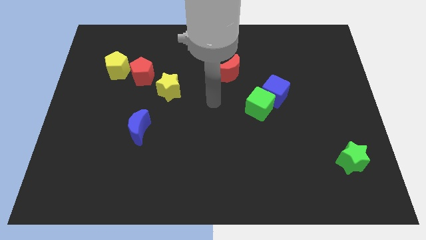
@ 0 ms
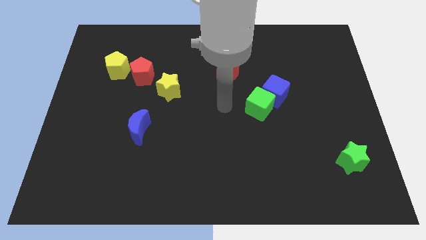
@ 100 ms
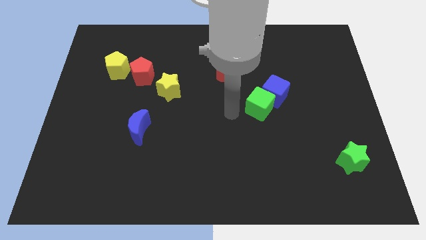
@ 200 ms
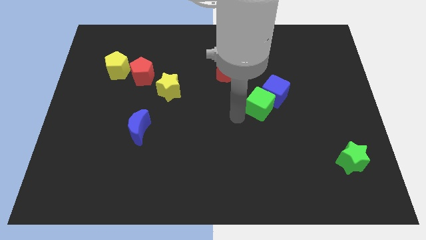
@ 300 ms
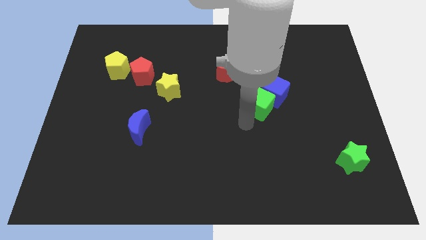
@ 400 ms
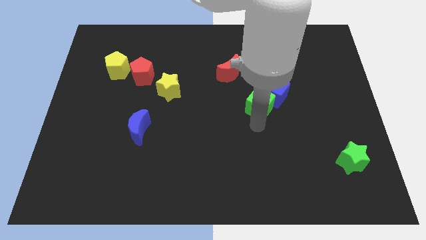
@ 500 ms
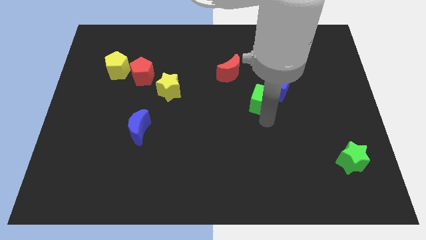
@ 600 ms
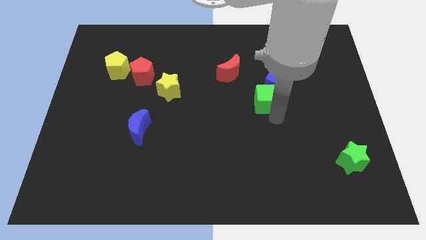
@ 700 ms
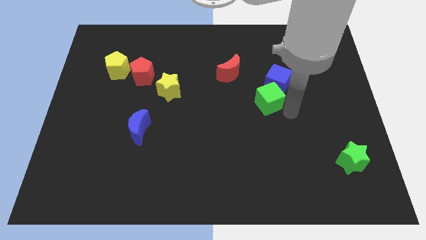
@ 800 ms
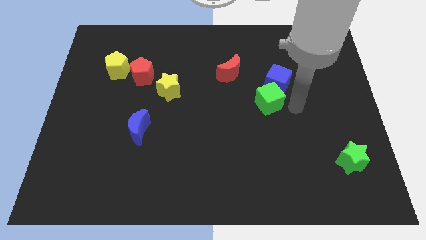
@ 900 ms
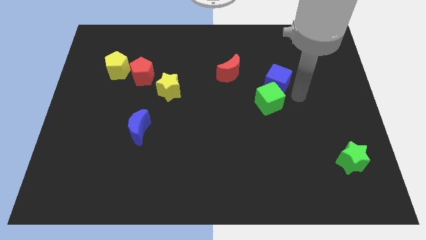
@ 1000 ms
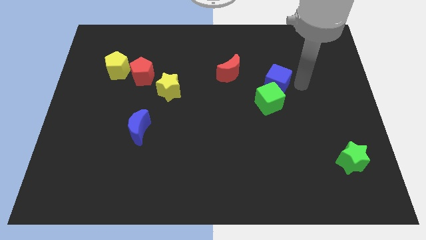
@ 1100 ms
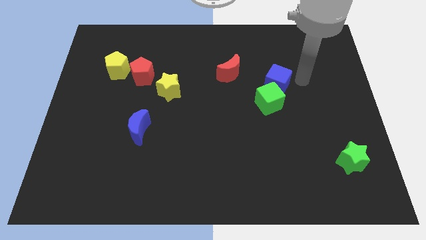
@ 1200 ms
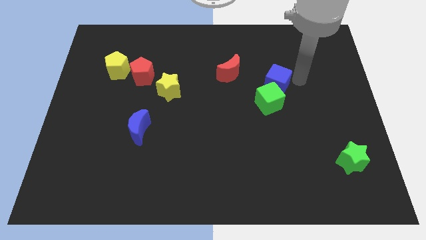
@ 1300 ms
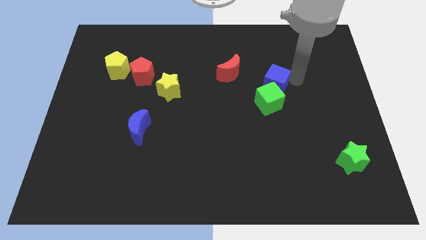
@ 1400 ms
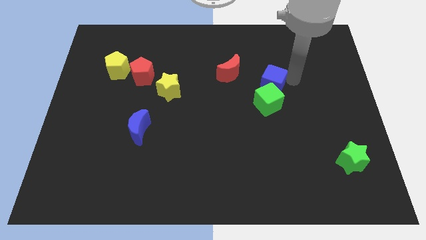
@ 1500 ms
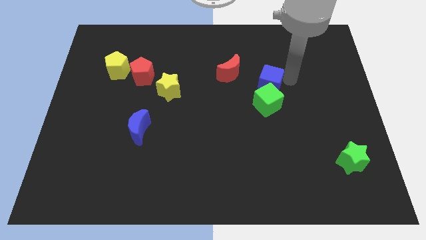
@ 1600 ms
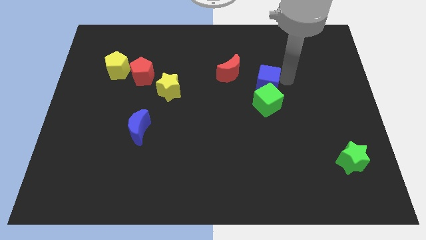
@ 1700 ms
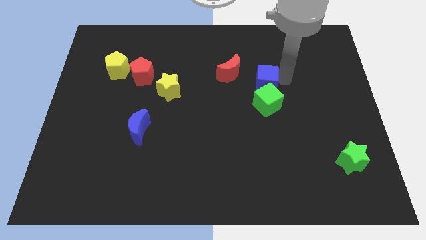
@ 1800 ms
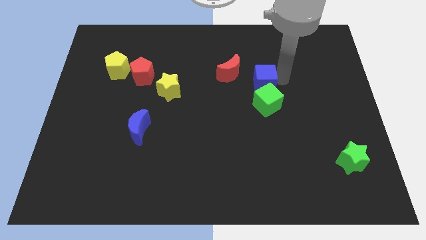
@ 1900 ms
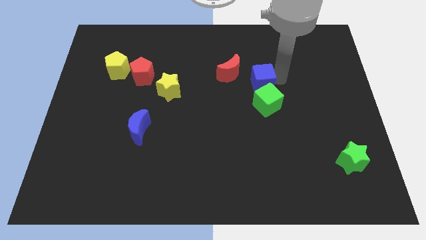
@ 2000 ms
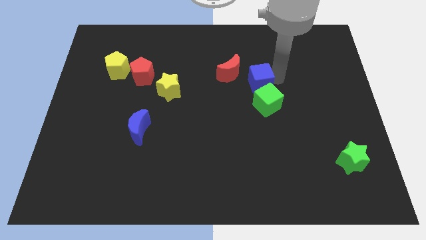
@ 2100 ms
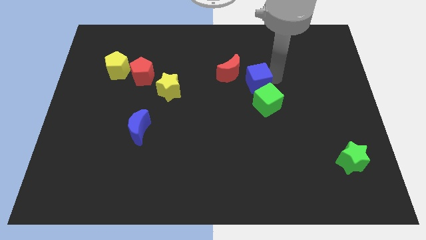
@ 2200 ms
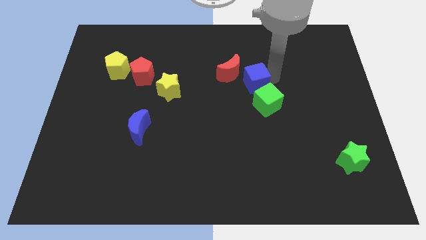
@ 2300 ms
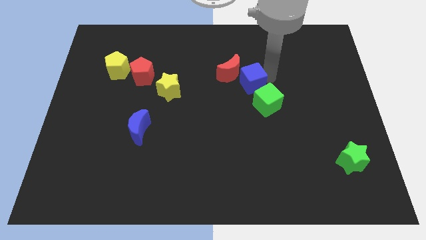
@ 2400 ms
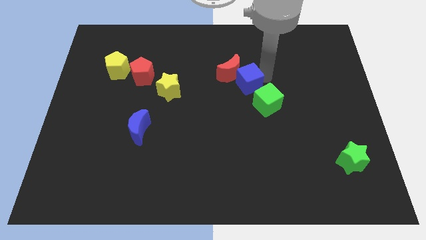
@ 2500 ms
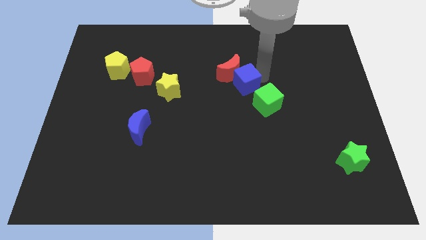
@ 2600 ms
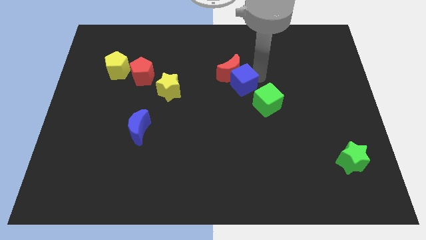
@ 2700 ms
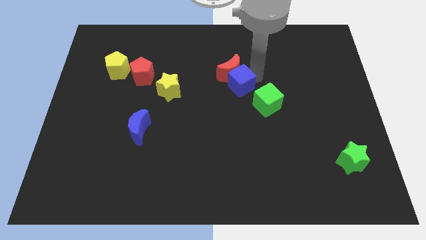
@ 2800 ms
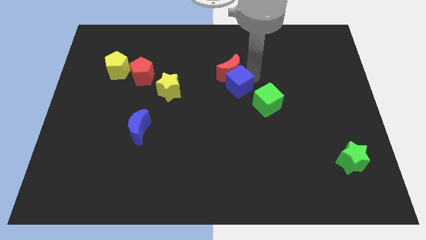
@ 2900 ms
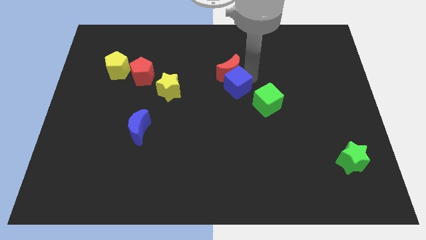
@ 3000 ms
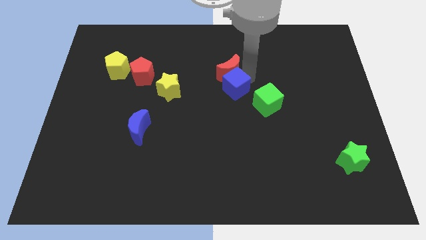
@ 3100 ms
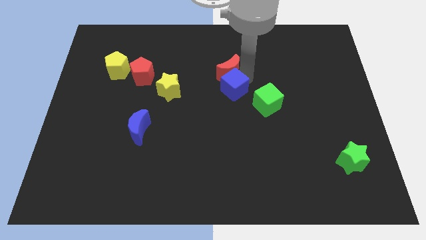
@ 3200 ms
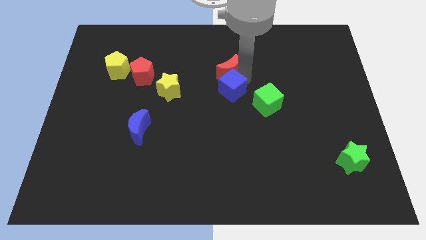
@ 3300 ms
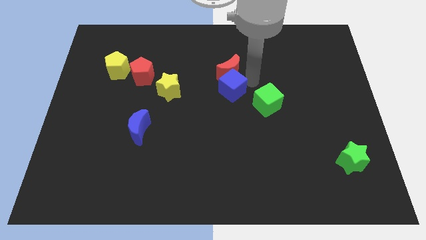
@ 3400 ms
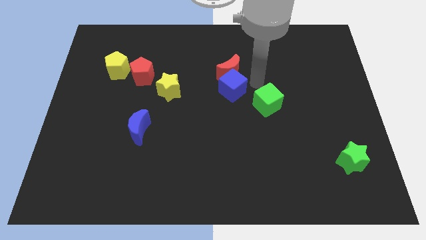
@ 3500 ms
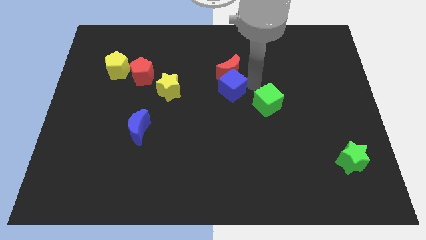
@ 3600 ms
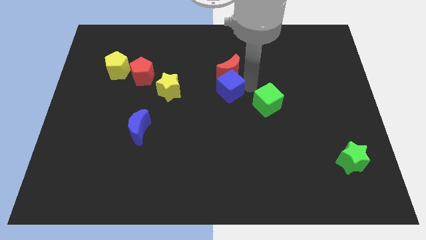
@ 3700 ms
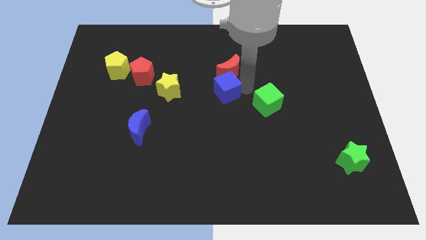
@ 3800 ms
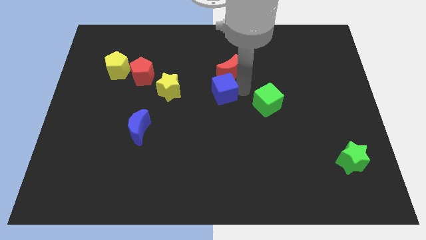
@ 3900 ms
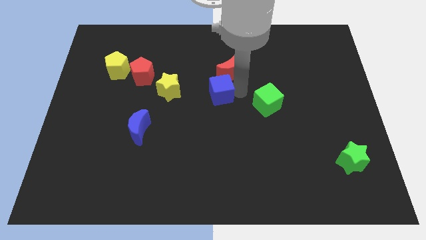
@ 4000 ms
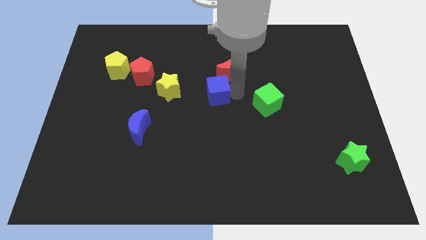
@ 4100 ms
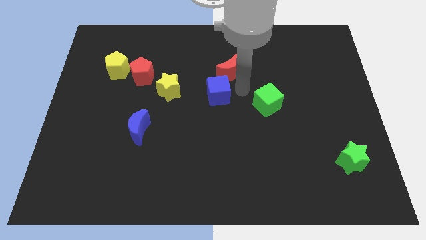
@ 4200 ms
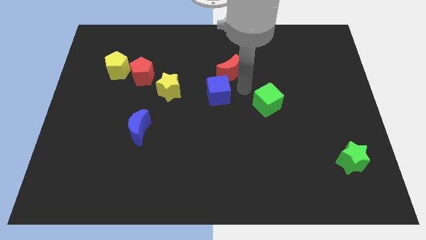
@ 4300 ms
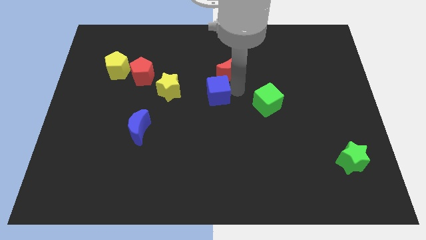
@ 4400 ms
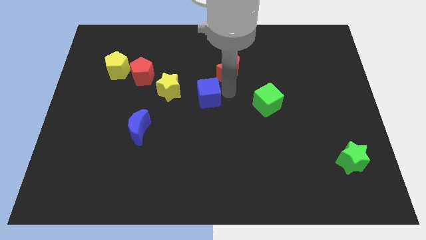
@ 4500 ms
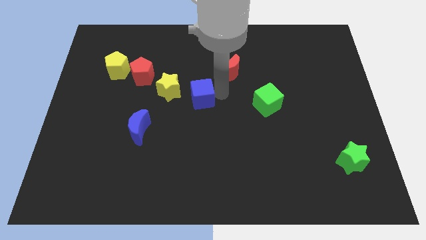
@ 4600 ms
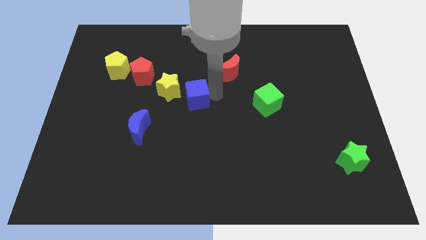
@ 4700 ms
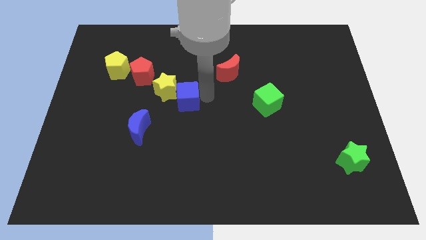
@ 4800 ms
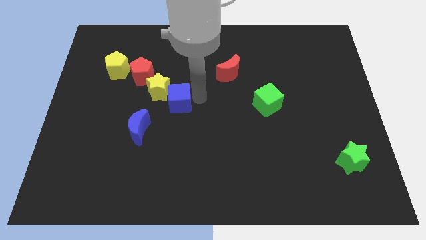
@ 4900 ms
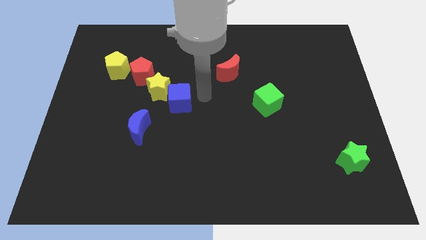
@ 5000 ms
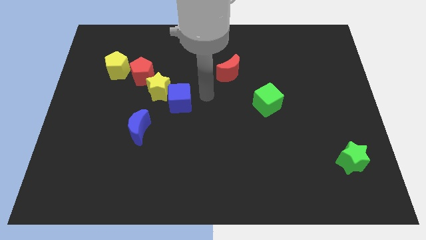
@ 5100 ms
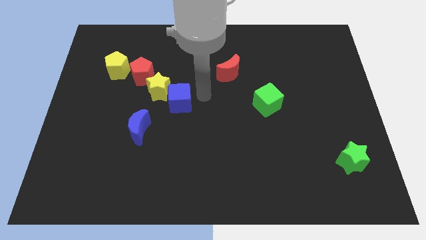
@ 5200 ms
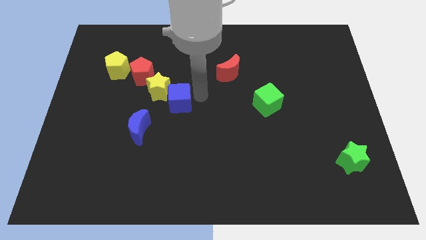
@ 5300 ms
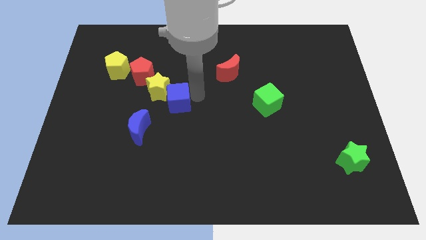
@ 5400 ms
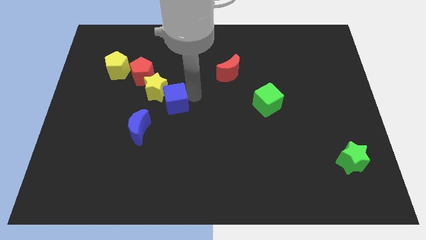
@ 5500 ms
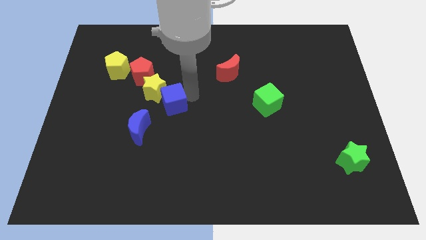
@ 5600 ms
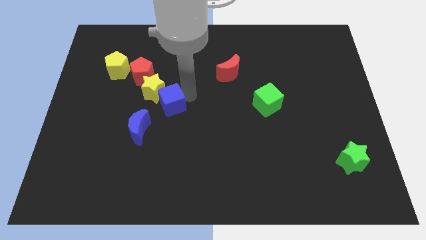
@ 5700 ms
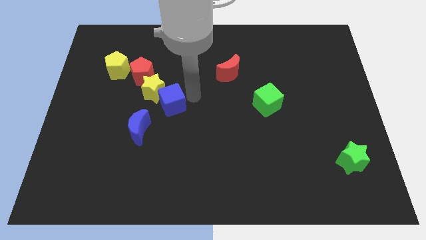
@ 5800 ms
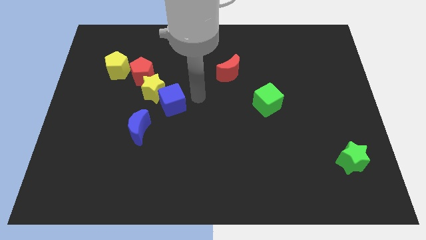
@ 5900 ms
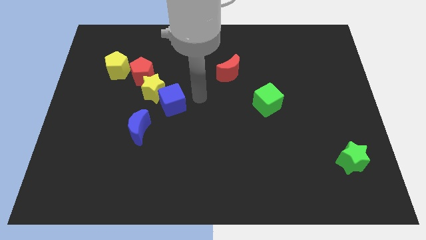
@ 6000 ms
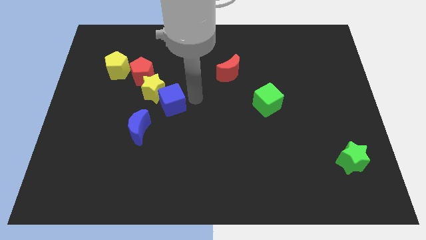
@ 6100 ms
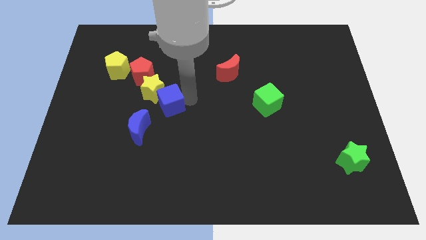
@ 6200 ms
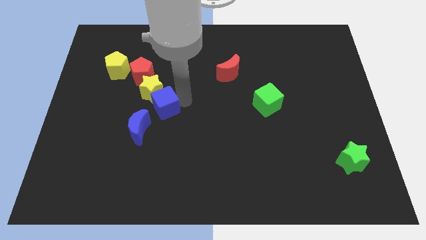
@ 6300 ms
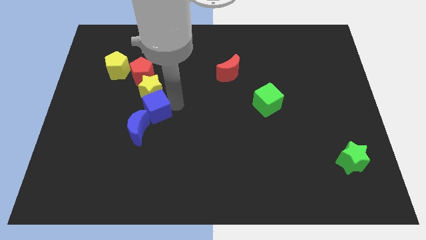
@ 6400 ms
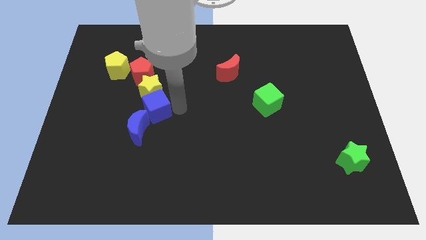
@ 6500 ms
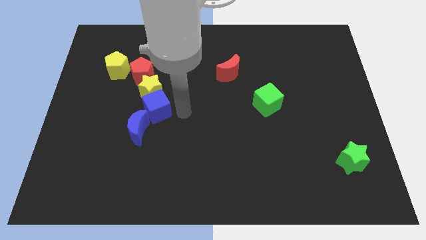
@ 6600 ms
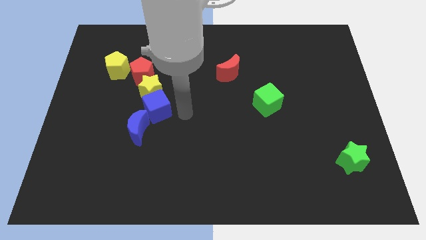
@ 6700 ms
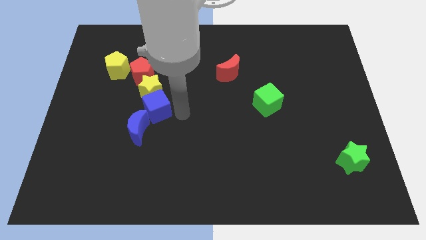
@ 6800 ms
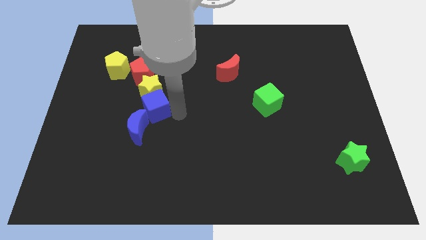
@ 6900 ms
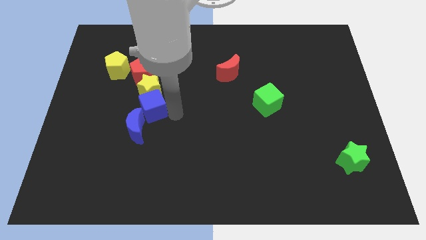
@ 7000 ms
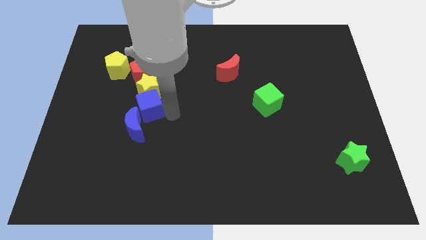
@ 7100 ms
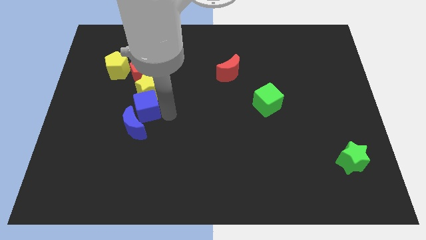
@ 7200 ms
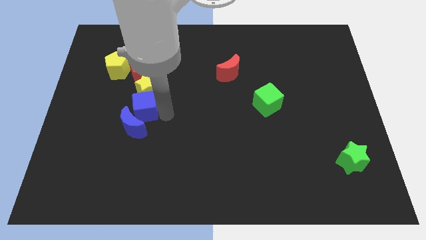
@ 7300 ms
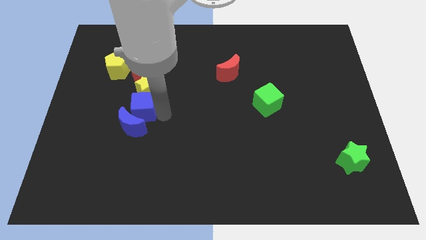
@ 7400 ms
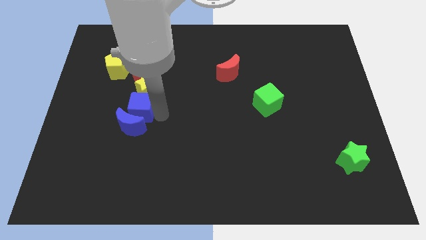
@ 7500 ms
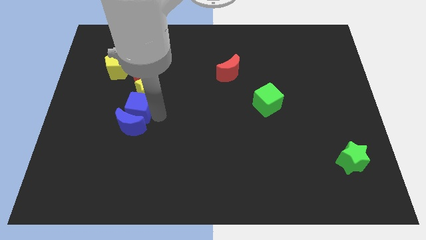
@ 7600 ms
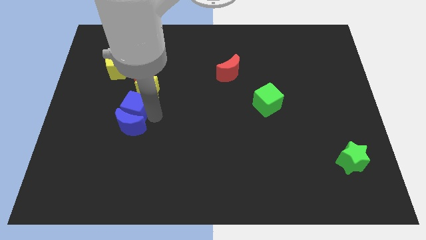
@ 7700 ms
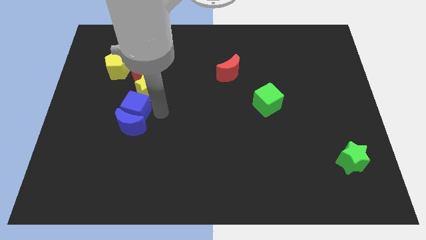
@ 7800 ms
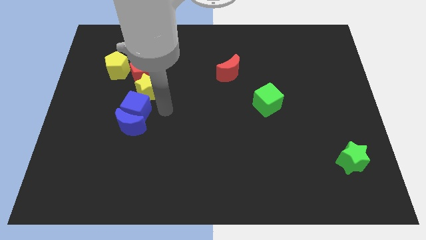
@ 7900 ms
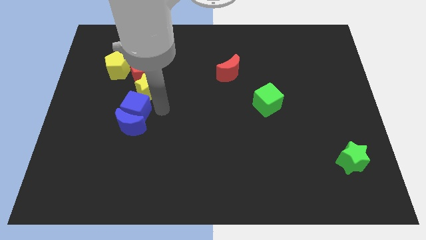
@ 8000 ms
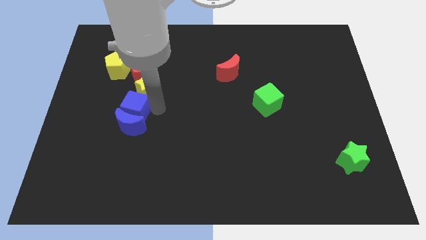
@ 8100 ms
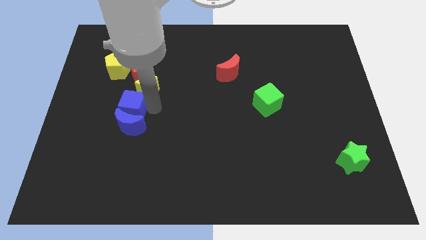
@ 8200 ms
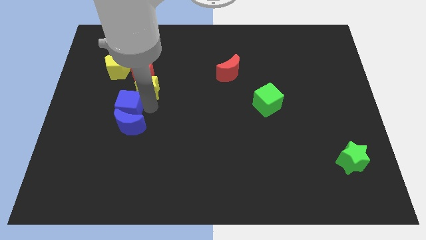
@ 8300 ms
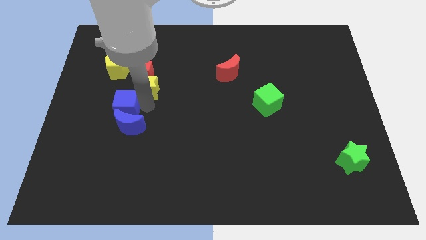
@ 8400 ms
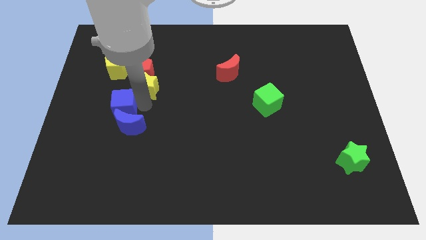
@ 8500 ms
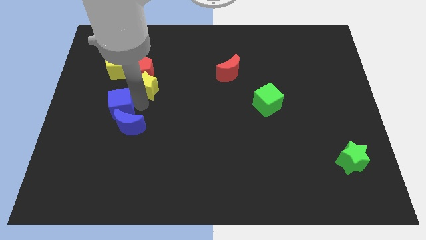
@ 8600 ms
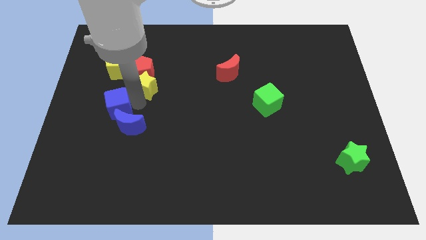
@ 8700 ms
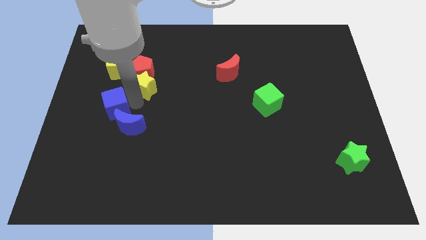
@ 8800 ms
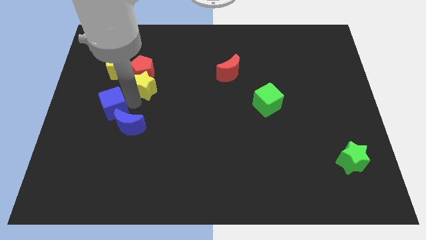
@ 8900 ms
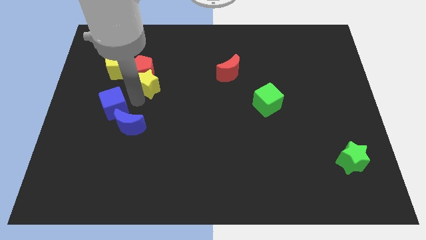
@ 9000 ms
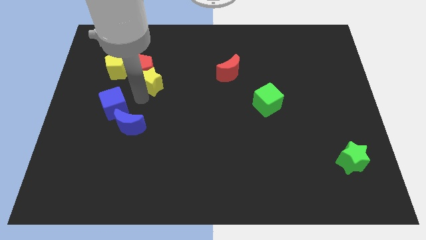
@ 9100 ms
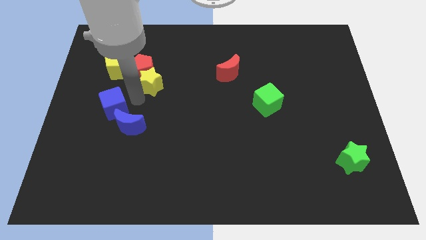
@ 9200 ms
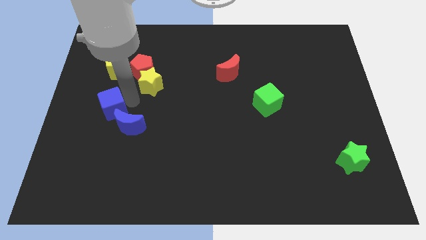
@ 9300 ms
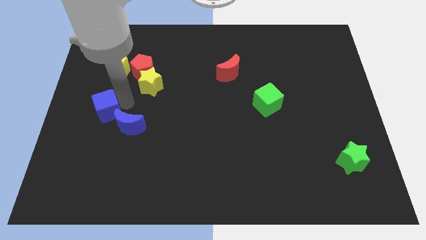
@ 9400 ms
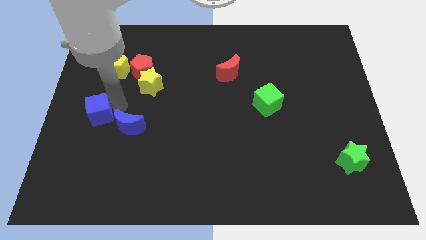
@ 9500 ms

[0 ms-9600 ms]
slide the blue cube to the left side
